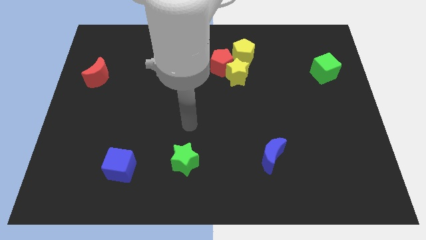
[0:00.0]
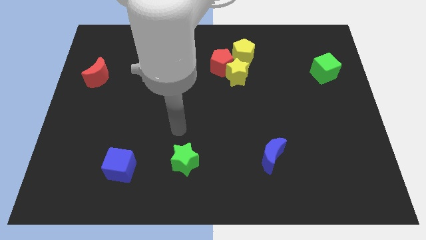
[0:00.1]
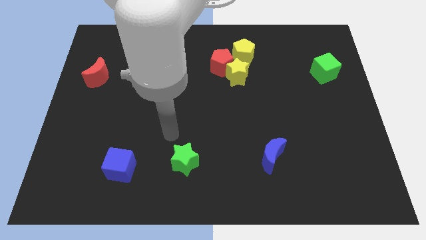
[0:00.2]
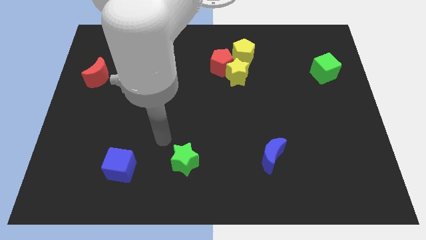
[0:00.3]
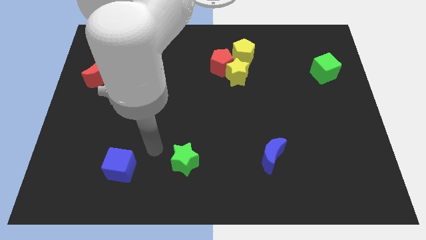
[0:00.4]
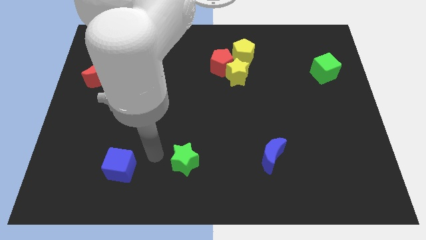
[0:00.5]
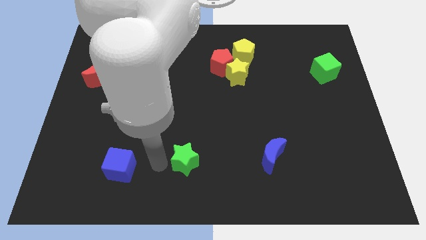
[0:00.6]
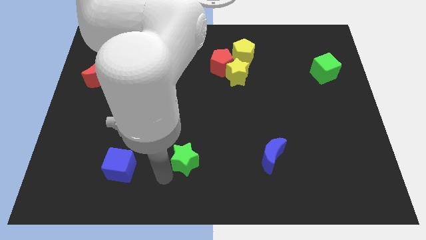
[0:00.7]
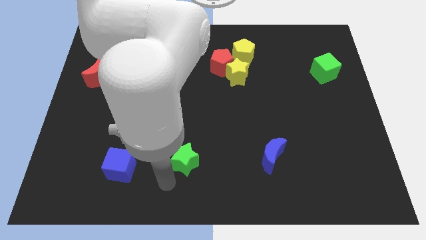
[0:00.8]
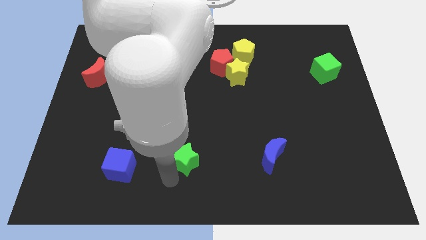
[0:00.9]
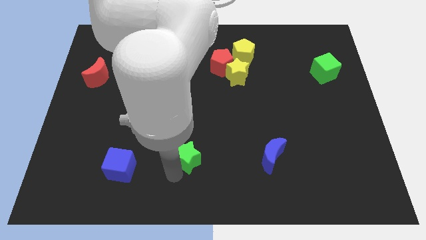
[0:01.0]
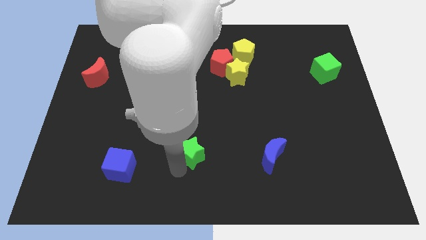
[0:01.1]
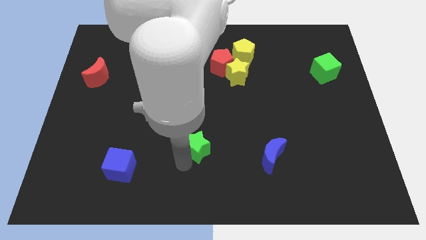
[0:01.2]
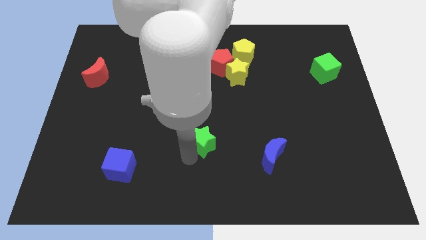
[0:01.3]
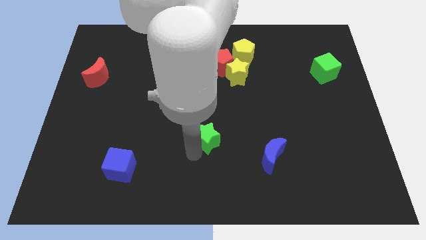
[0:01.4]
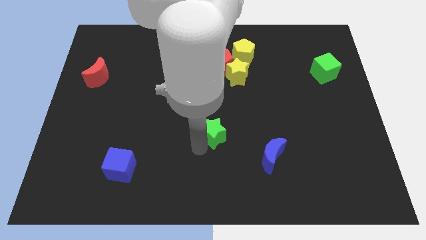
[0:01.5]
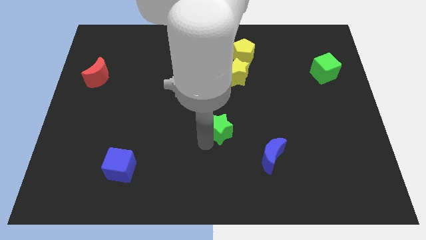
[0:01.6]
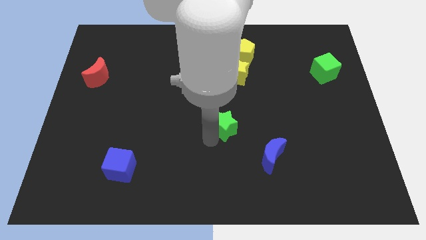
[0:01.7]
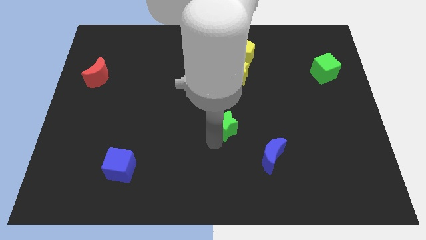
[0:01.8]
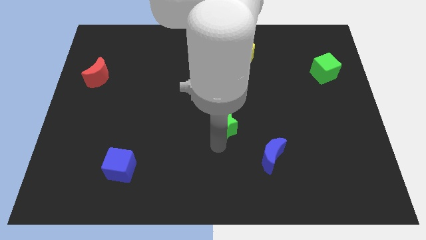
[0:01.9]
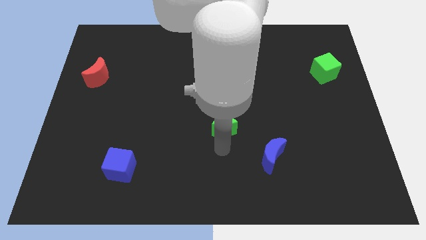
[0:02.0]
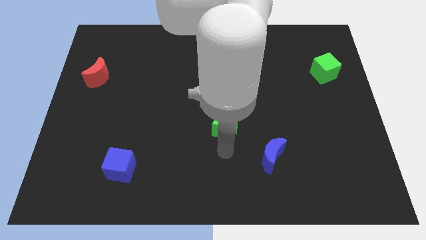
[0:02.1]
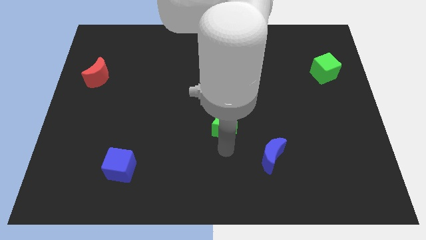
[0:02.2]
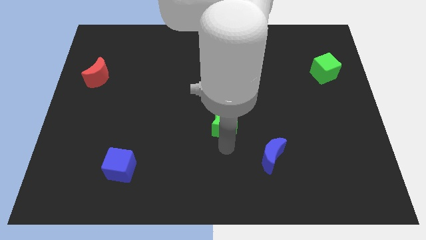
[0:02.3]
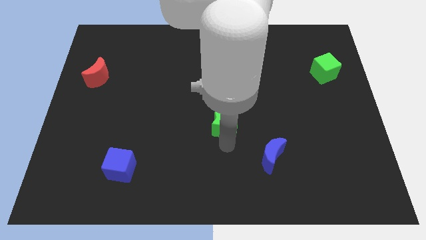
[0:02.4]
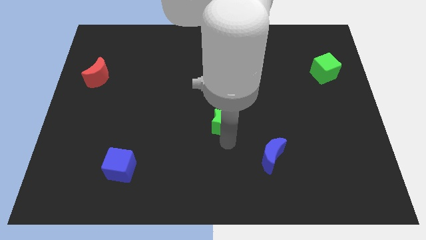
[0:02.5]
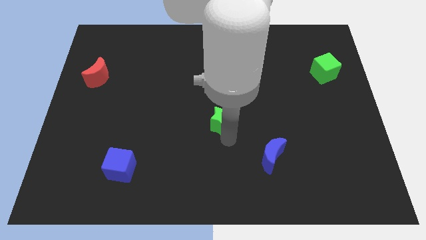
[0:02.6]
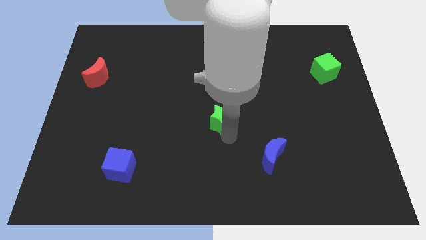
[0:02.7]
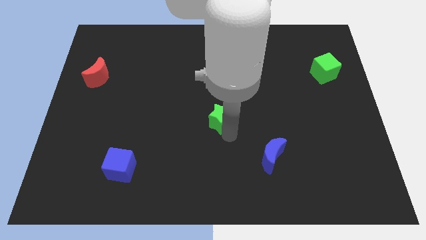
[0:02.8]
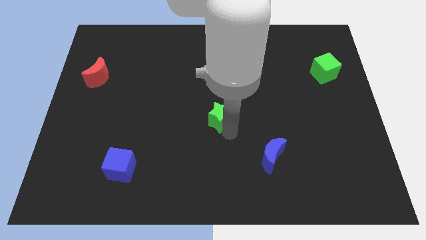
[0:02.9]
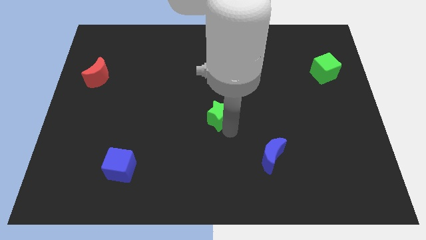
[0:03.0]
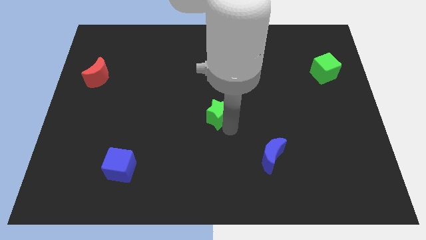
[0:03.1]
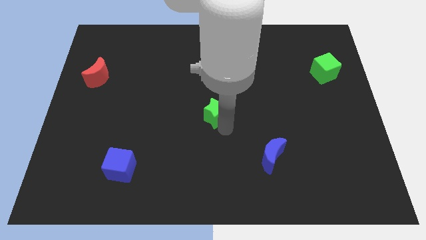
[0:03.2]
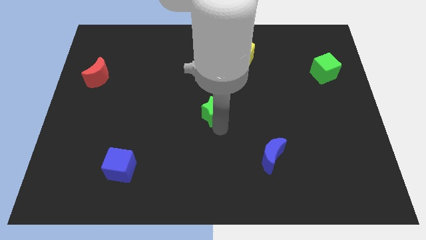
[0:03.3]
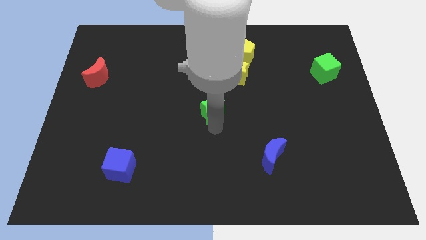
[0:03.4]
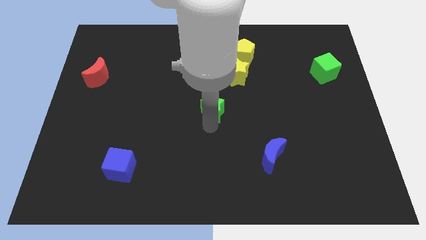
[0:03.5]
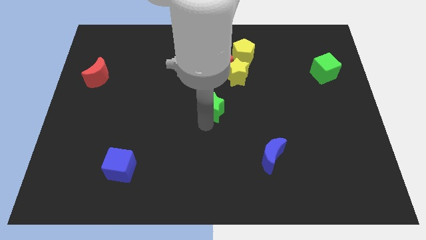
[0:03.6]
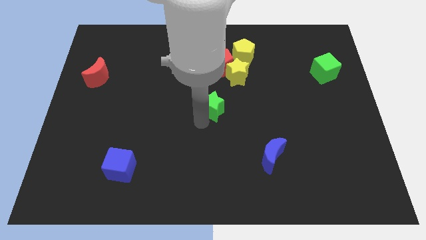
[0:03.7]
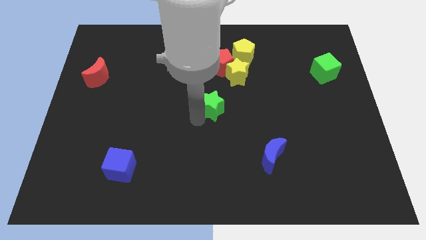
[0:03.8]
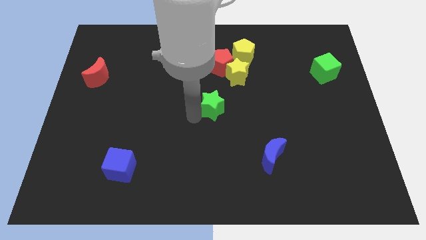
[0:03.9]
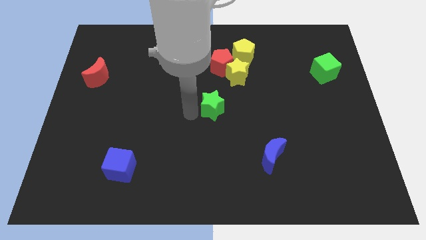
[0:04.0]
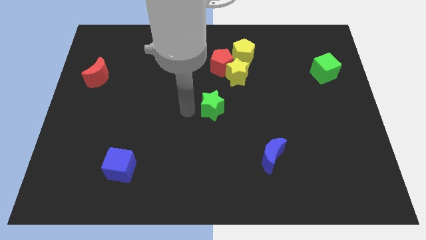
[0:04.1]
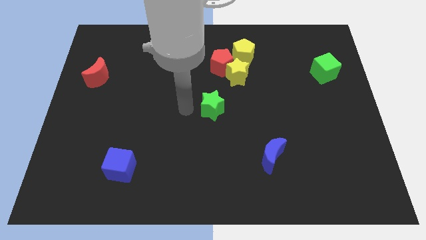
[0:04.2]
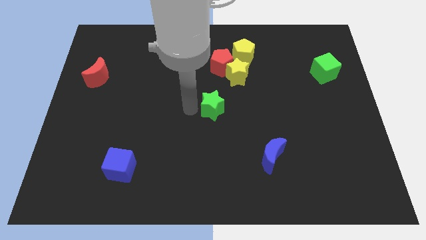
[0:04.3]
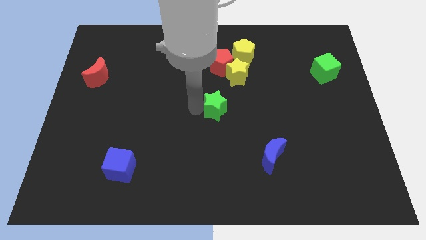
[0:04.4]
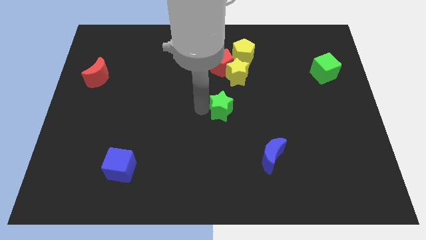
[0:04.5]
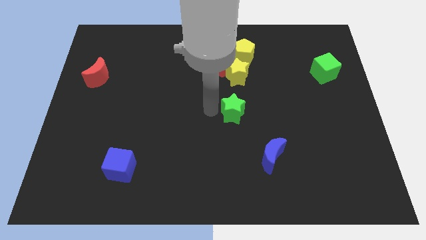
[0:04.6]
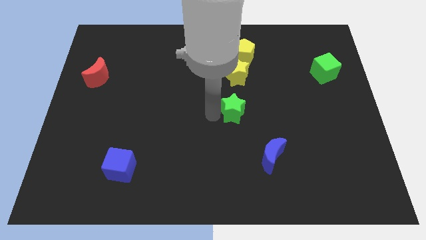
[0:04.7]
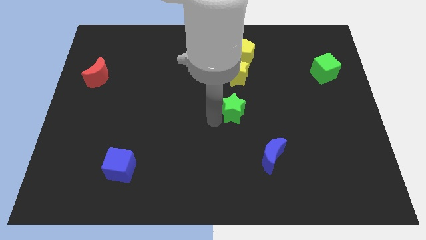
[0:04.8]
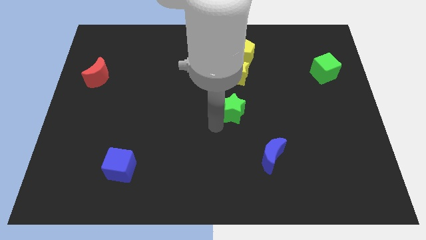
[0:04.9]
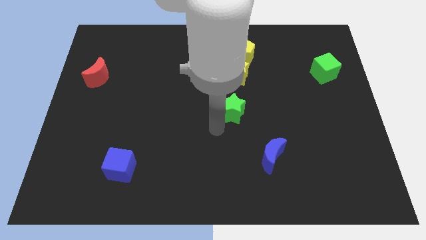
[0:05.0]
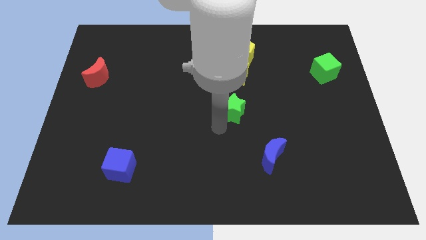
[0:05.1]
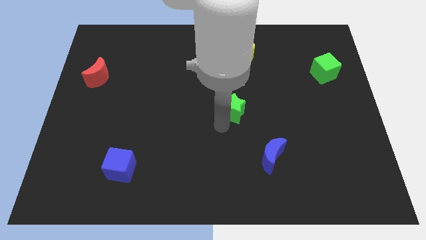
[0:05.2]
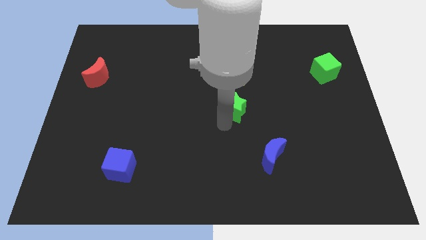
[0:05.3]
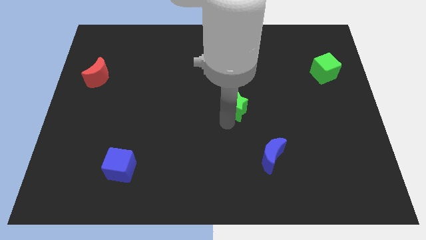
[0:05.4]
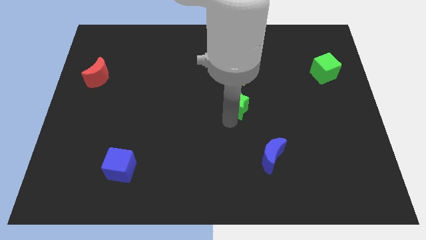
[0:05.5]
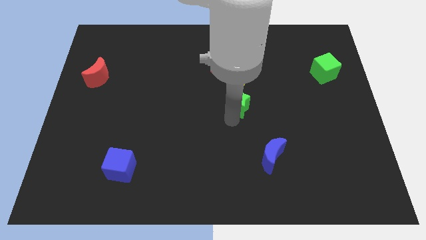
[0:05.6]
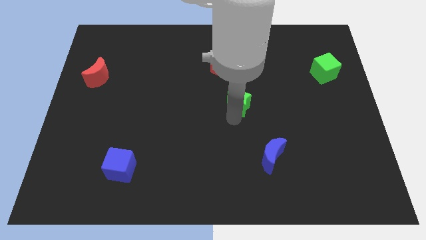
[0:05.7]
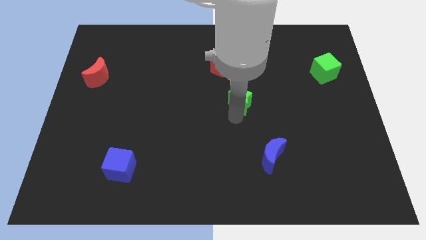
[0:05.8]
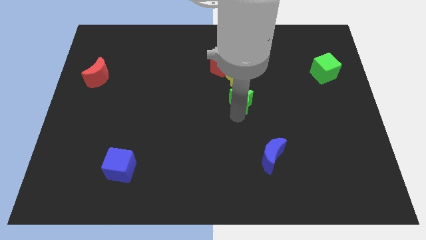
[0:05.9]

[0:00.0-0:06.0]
push the green star upwards and right diagonally

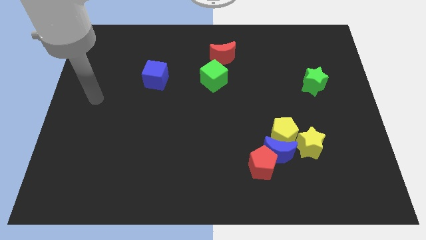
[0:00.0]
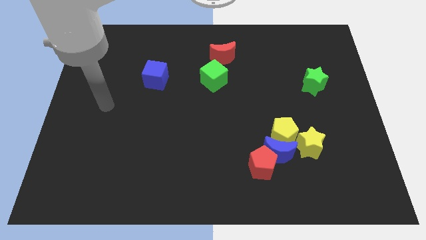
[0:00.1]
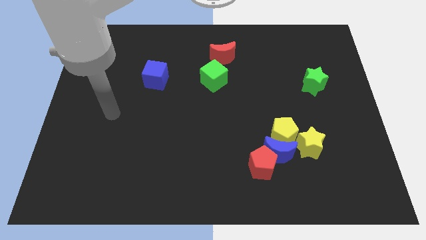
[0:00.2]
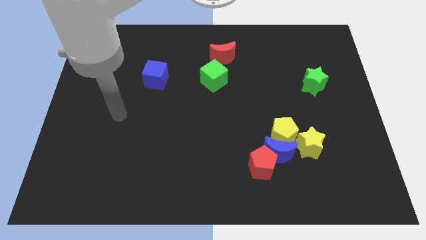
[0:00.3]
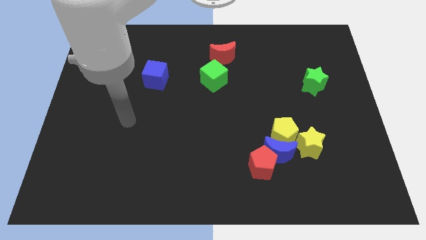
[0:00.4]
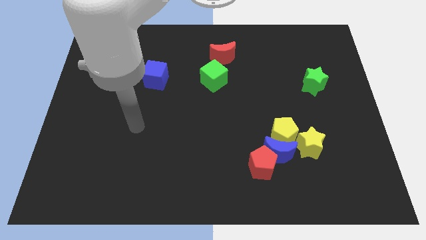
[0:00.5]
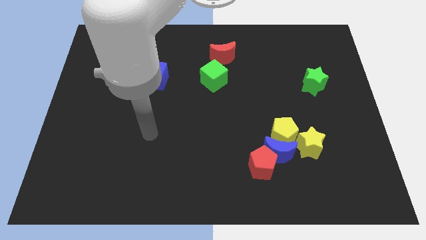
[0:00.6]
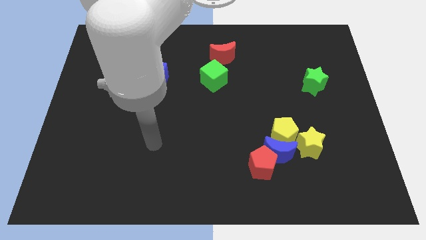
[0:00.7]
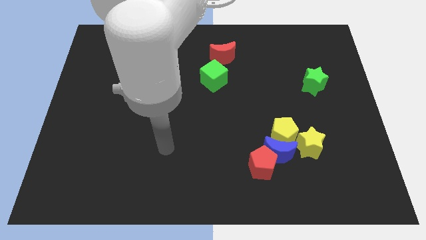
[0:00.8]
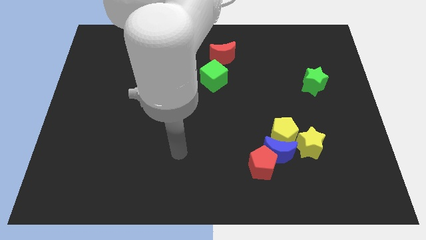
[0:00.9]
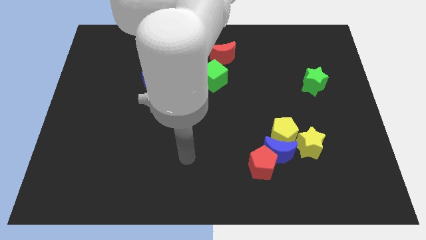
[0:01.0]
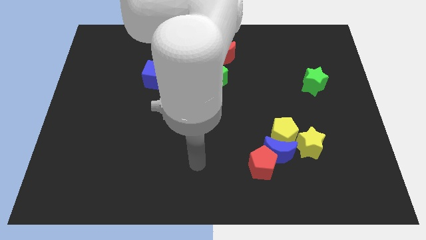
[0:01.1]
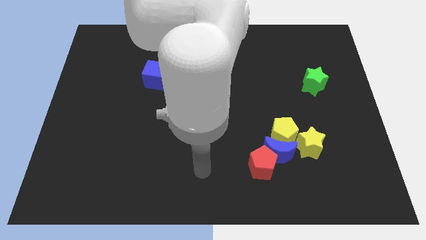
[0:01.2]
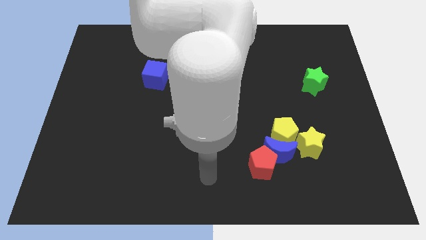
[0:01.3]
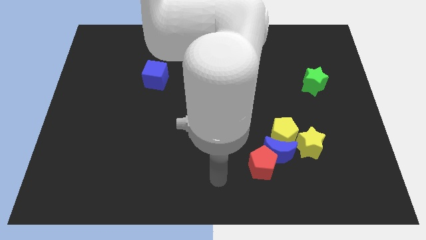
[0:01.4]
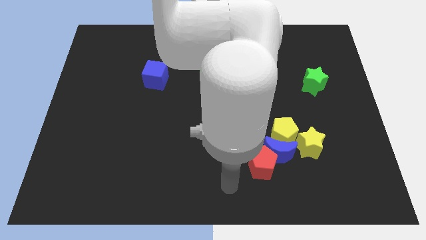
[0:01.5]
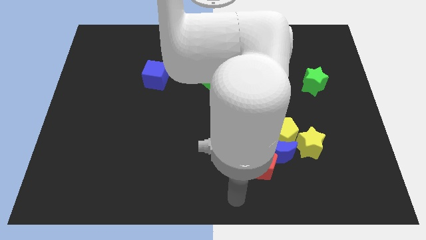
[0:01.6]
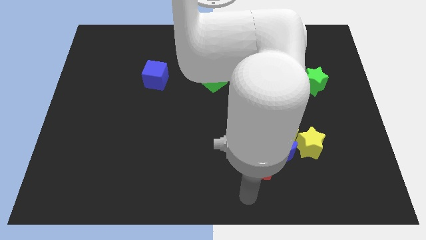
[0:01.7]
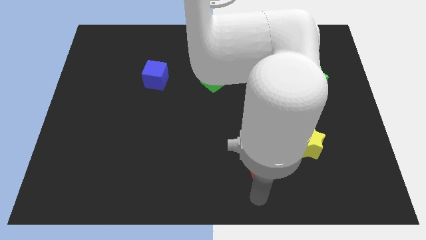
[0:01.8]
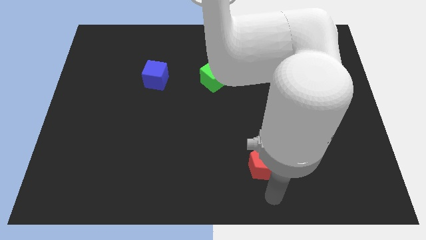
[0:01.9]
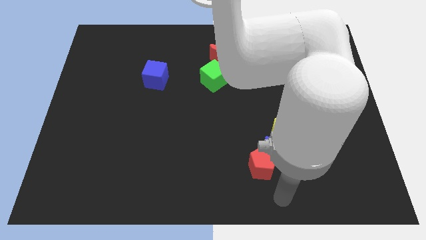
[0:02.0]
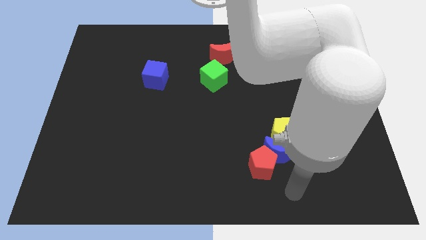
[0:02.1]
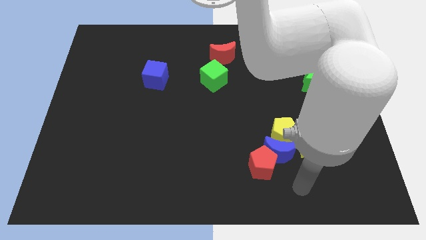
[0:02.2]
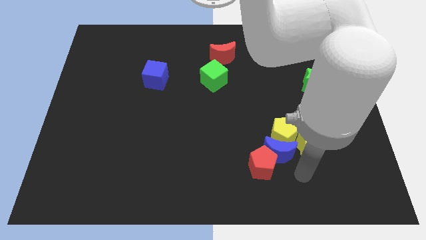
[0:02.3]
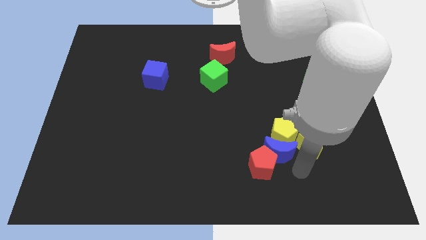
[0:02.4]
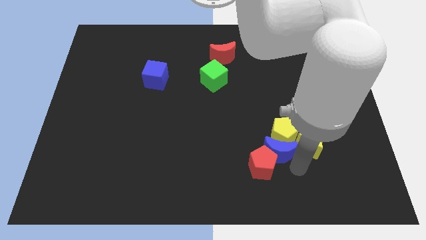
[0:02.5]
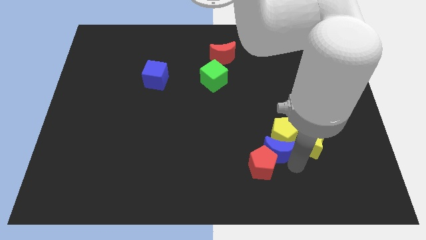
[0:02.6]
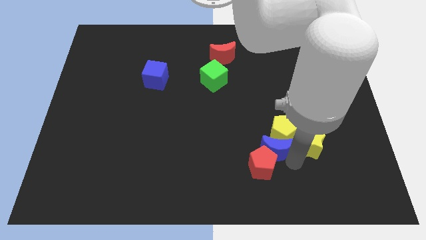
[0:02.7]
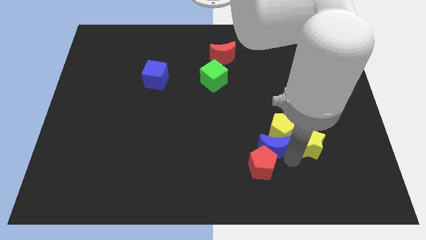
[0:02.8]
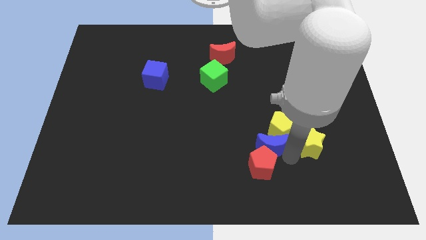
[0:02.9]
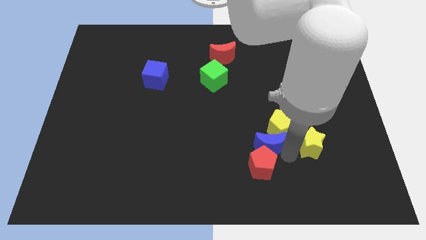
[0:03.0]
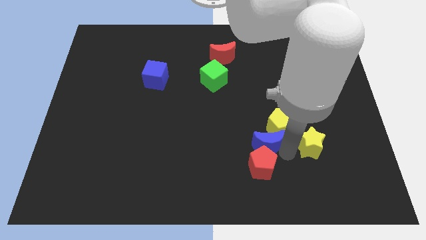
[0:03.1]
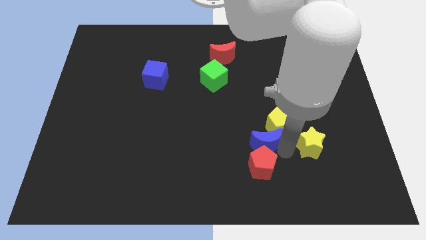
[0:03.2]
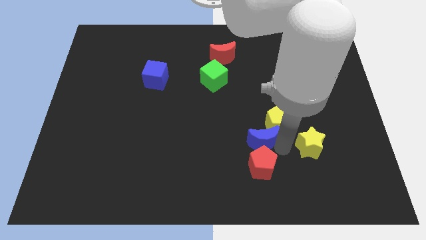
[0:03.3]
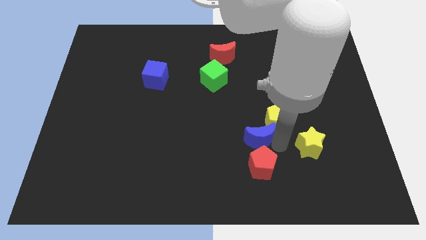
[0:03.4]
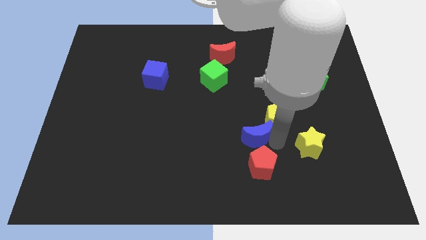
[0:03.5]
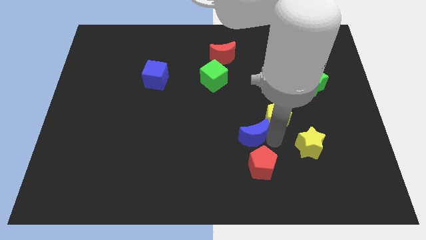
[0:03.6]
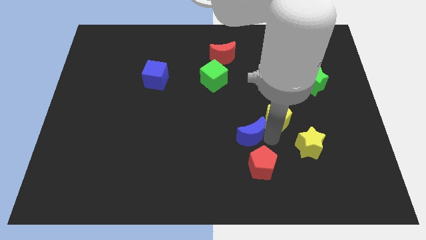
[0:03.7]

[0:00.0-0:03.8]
slide the blue moon diagonally upwards and left a little bit
